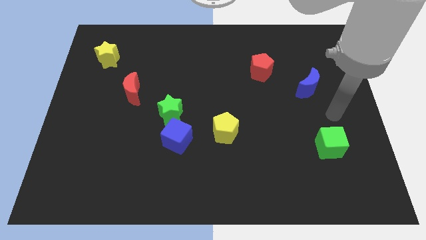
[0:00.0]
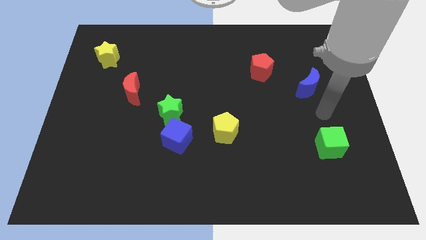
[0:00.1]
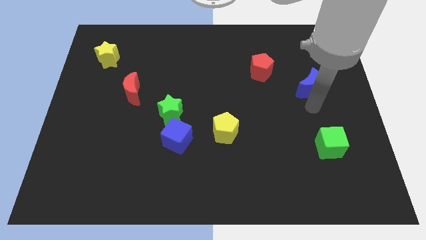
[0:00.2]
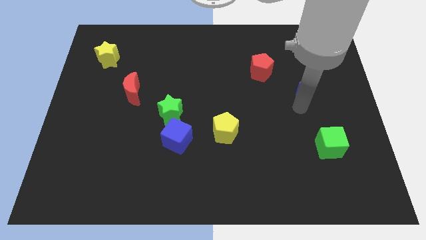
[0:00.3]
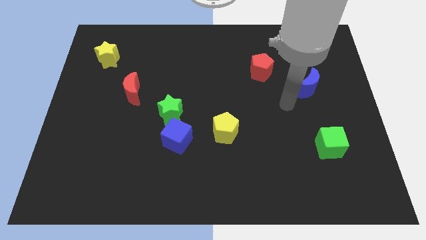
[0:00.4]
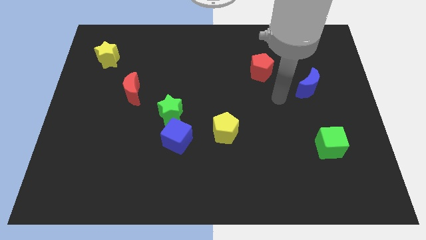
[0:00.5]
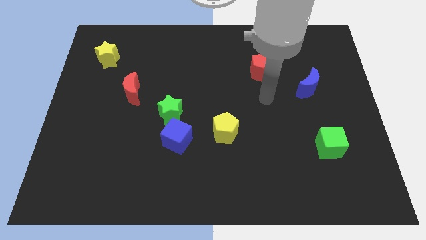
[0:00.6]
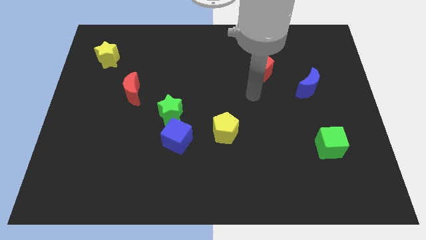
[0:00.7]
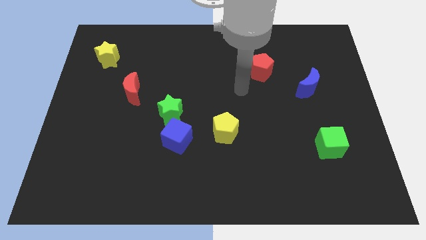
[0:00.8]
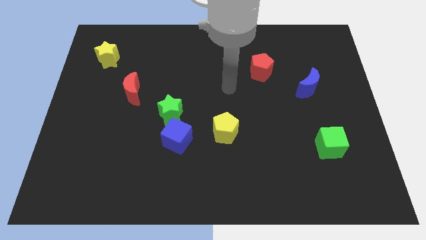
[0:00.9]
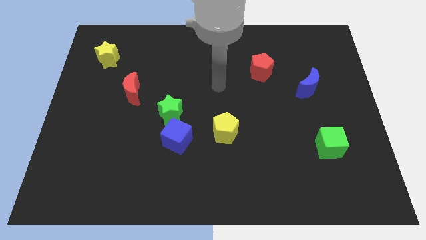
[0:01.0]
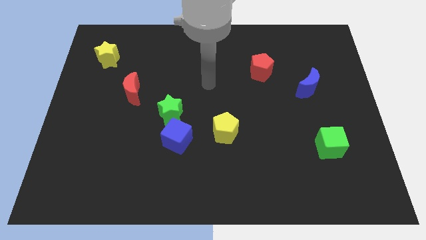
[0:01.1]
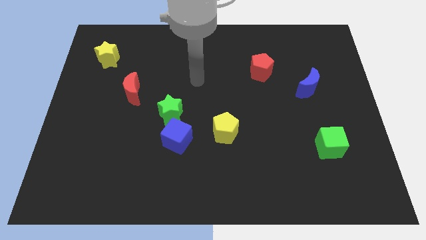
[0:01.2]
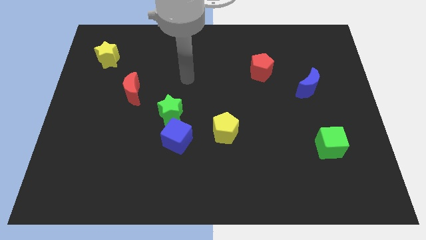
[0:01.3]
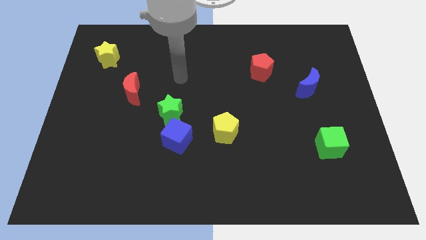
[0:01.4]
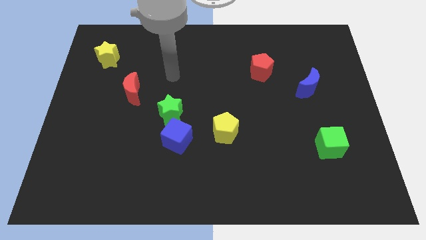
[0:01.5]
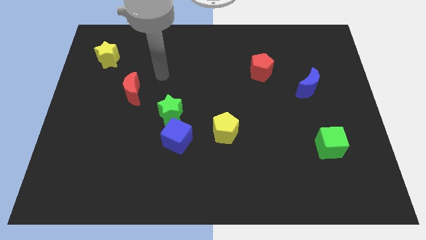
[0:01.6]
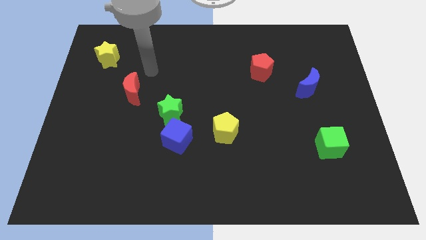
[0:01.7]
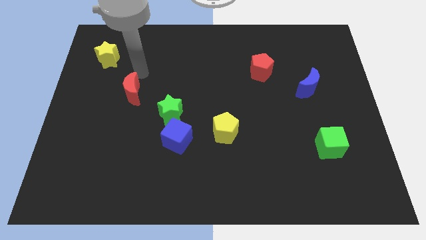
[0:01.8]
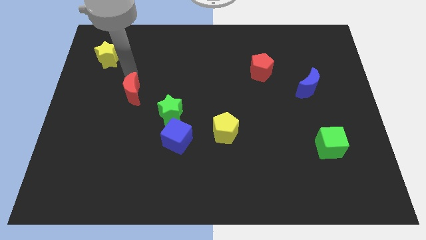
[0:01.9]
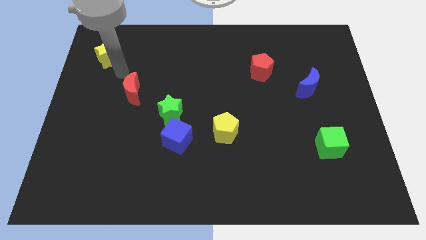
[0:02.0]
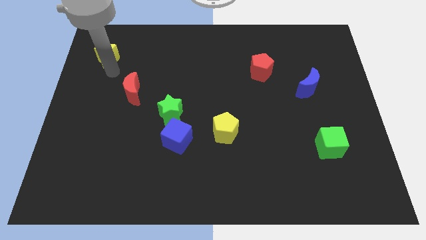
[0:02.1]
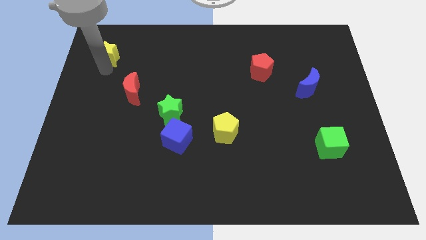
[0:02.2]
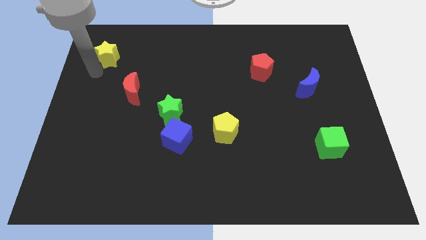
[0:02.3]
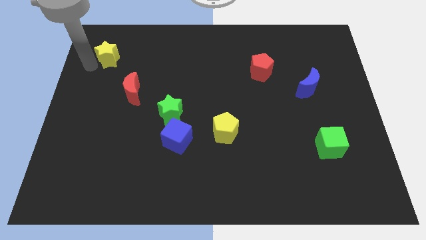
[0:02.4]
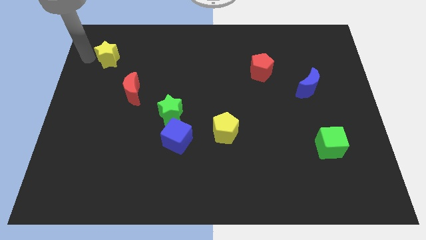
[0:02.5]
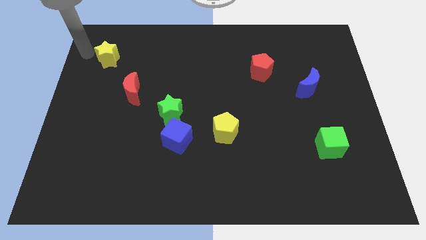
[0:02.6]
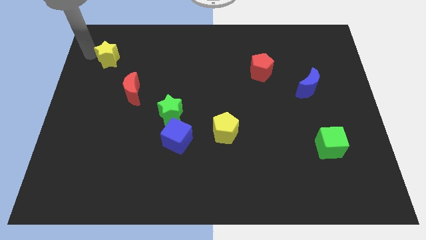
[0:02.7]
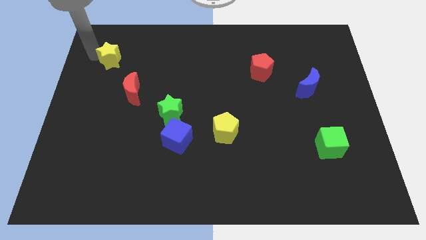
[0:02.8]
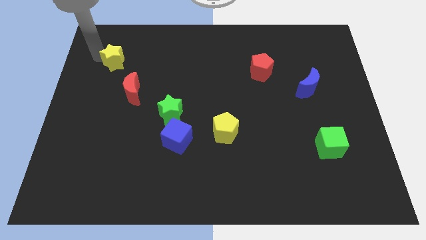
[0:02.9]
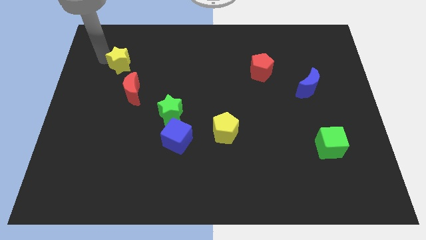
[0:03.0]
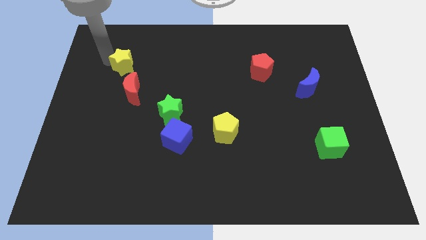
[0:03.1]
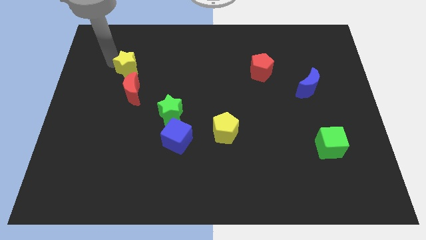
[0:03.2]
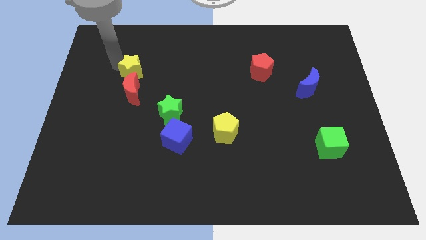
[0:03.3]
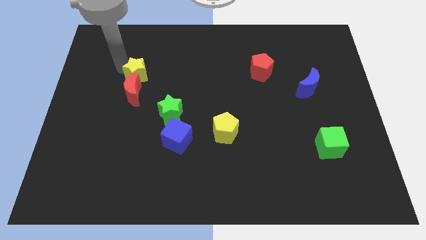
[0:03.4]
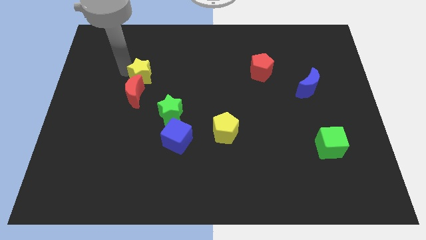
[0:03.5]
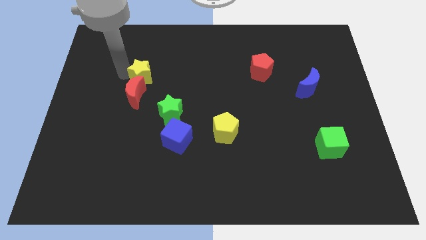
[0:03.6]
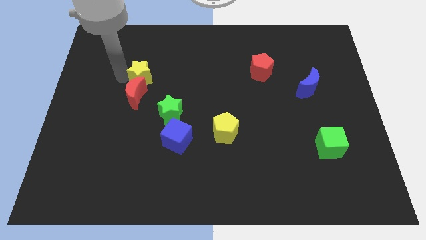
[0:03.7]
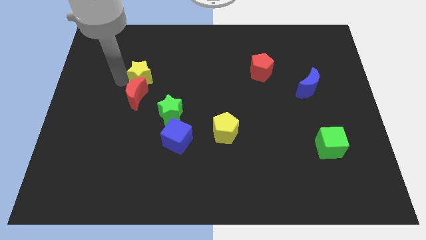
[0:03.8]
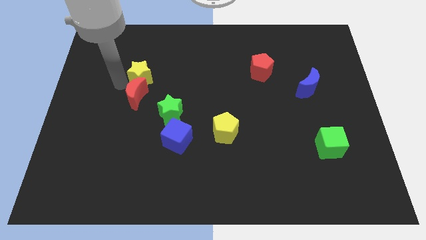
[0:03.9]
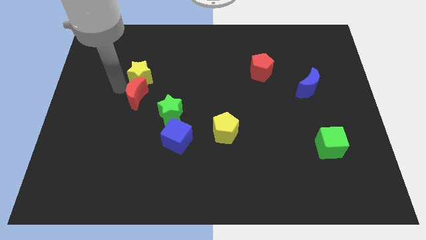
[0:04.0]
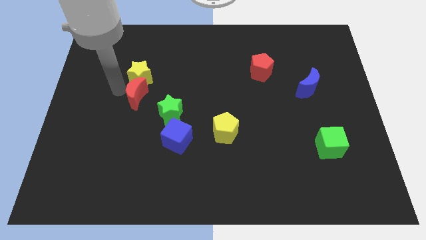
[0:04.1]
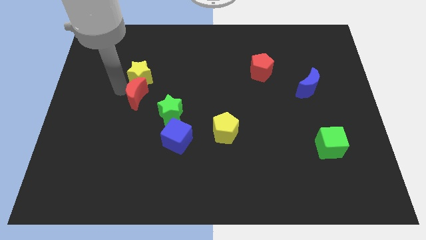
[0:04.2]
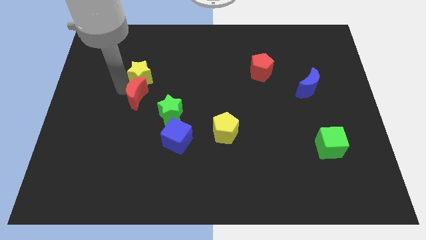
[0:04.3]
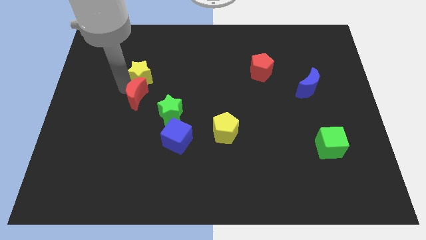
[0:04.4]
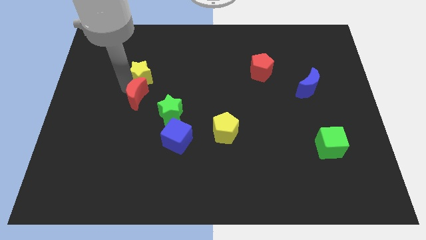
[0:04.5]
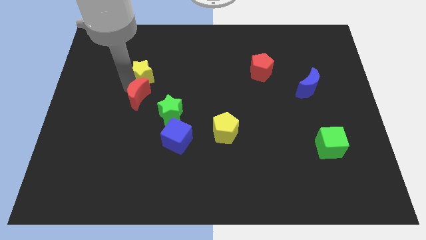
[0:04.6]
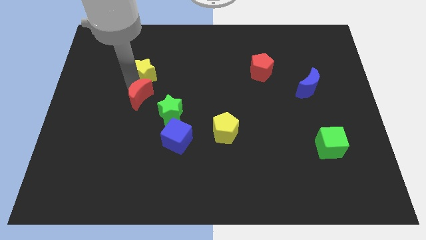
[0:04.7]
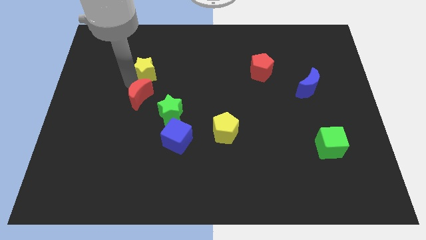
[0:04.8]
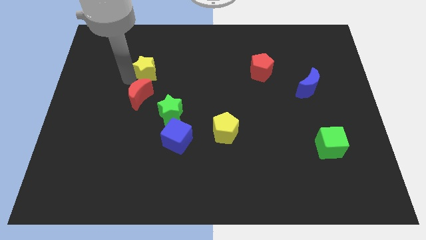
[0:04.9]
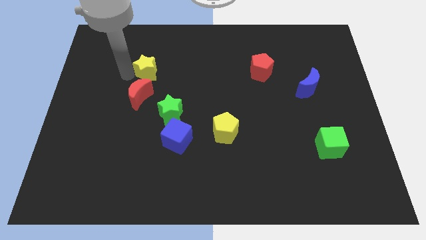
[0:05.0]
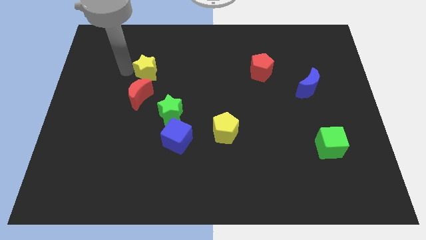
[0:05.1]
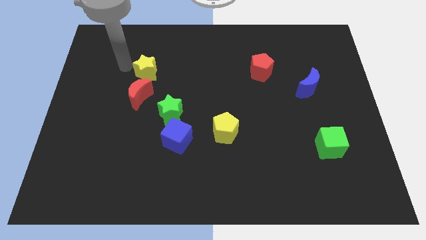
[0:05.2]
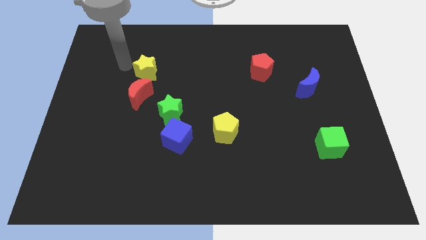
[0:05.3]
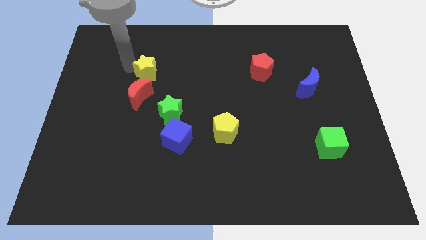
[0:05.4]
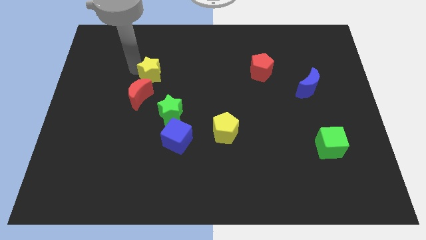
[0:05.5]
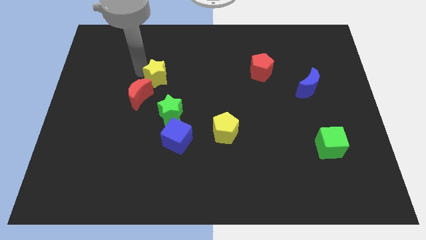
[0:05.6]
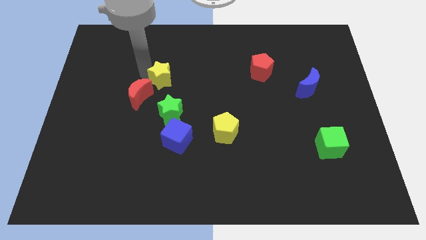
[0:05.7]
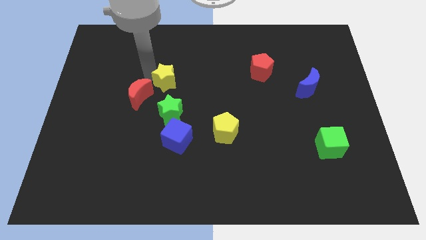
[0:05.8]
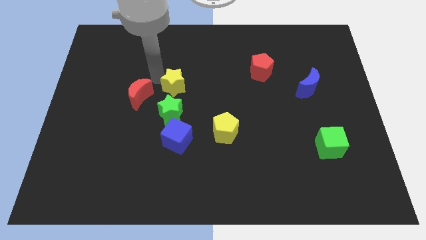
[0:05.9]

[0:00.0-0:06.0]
slide the yellow star to the middle of the board
